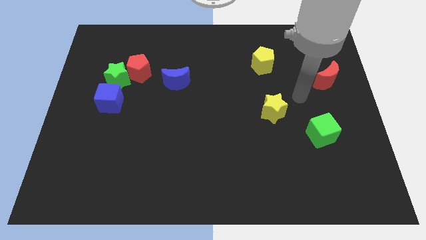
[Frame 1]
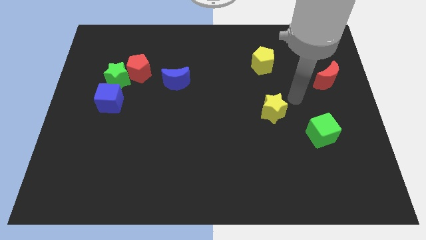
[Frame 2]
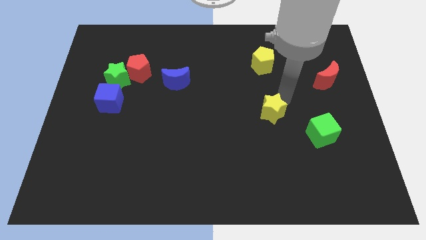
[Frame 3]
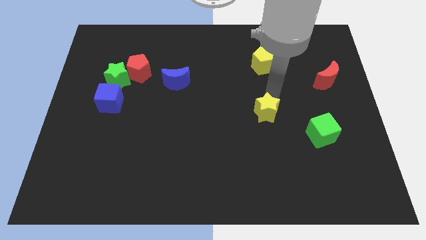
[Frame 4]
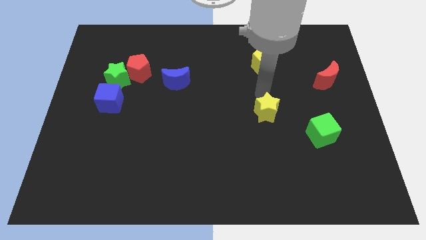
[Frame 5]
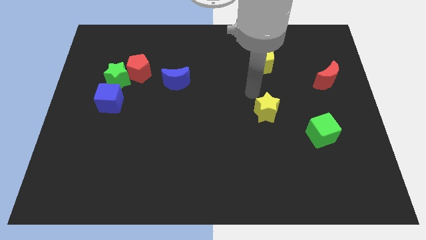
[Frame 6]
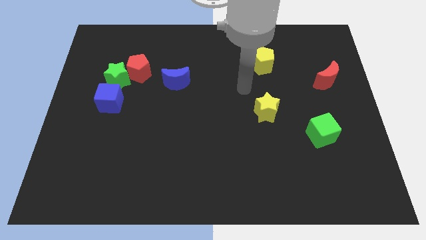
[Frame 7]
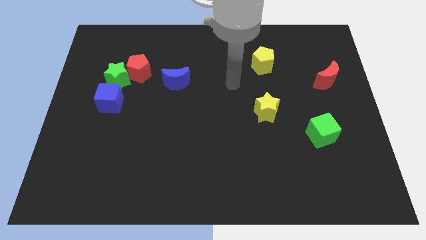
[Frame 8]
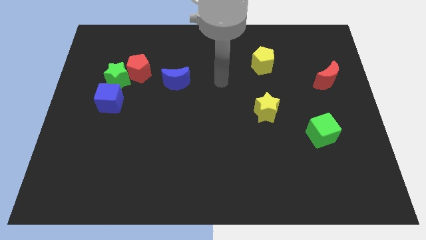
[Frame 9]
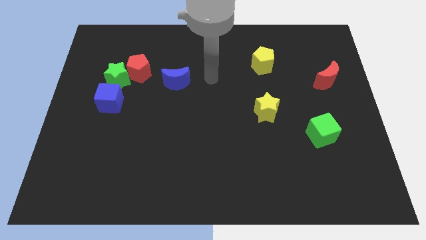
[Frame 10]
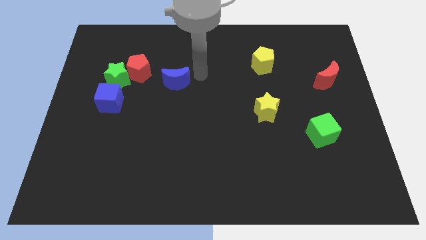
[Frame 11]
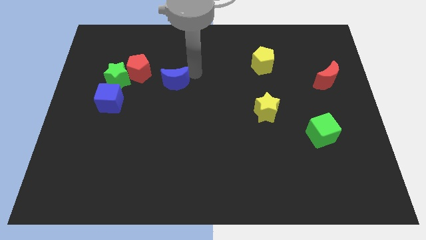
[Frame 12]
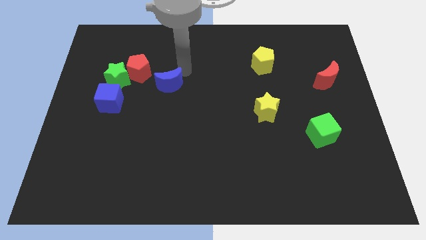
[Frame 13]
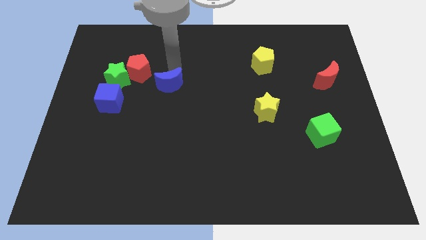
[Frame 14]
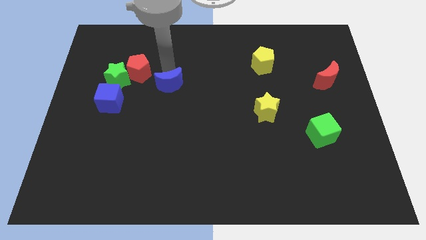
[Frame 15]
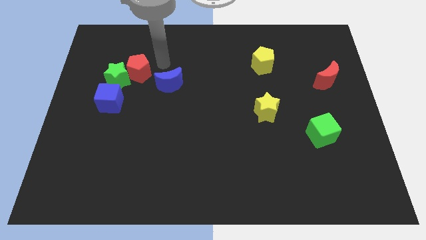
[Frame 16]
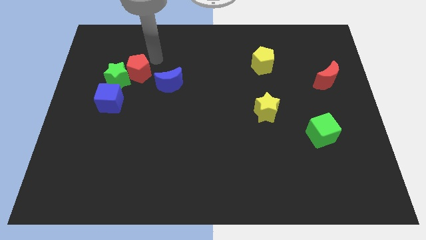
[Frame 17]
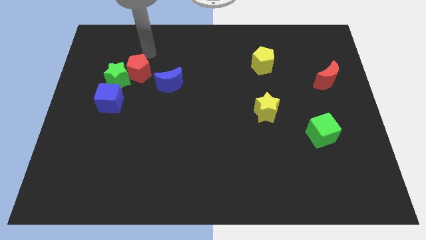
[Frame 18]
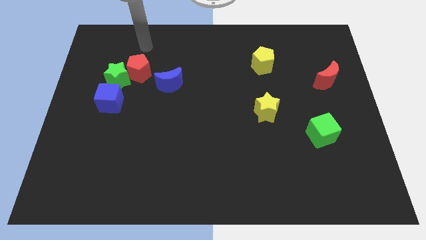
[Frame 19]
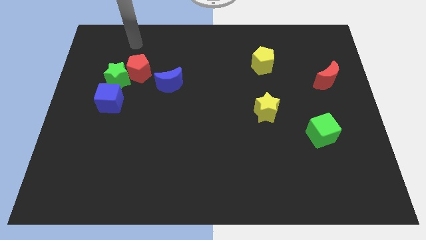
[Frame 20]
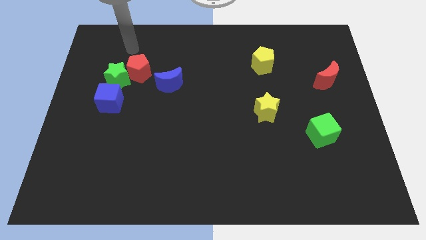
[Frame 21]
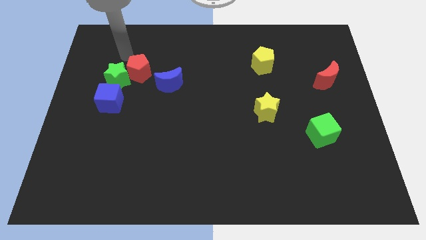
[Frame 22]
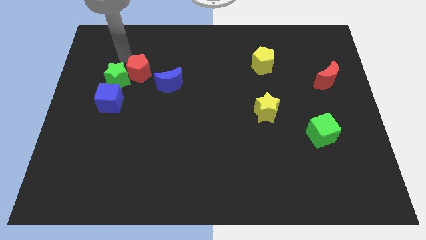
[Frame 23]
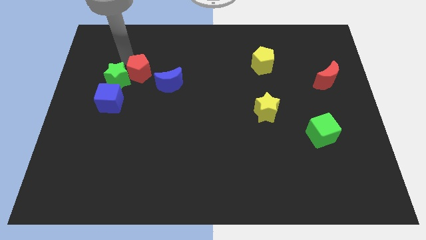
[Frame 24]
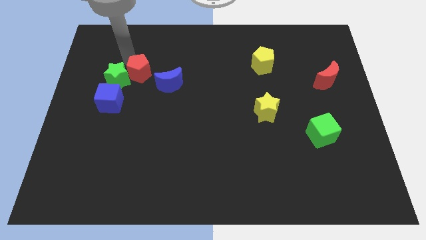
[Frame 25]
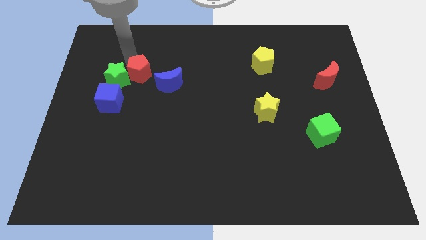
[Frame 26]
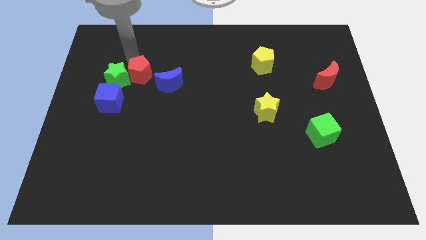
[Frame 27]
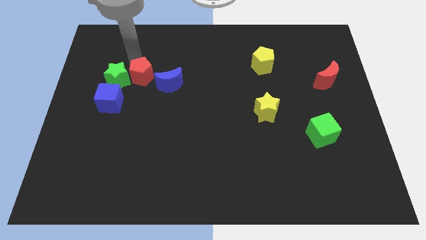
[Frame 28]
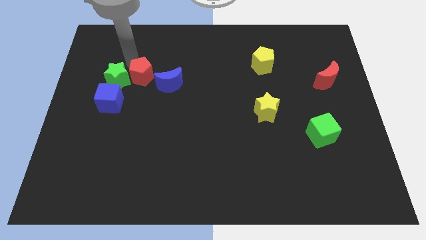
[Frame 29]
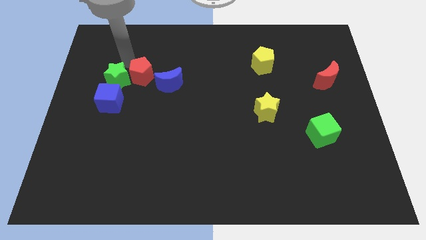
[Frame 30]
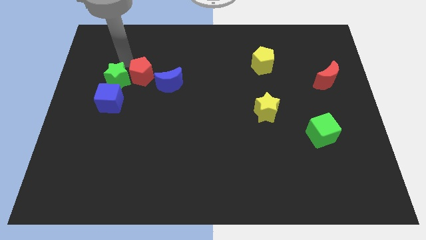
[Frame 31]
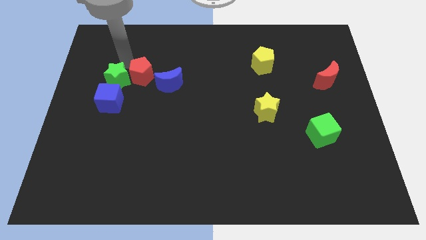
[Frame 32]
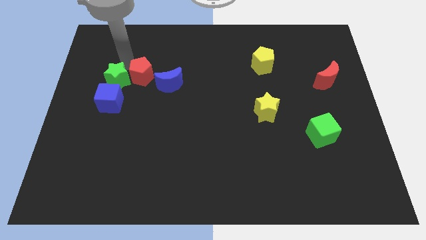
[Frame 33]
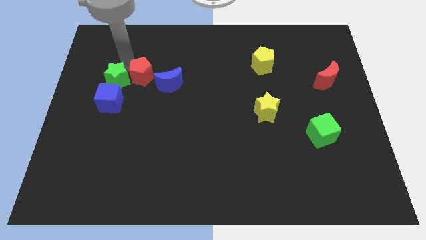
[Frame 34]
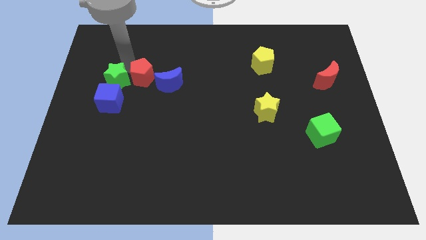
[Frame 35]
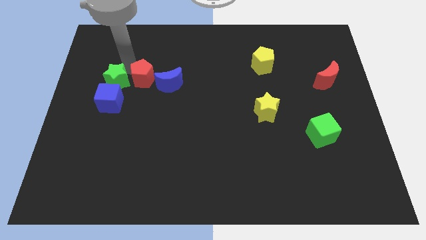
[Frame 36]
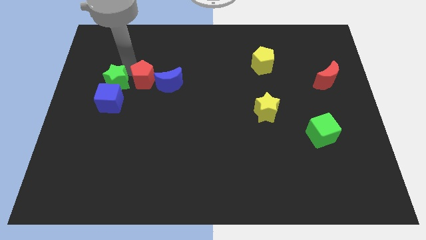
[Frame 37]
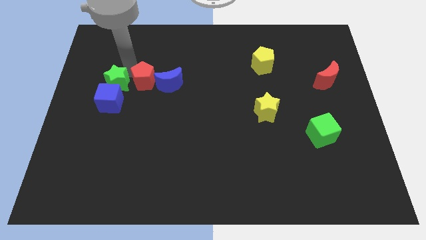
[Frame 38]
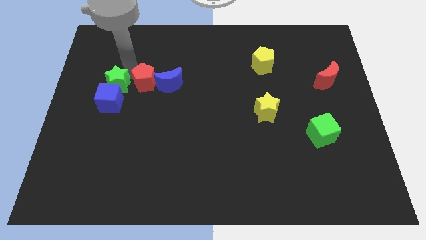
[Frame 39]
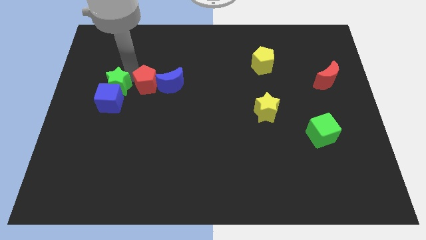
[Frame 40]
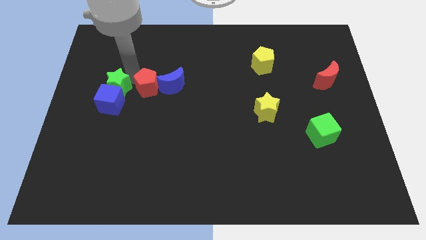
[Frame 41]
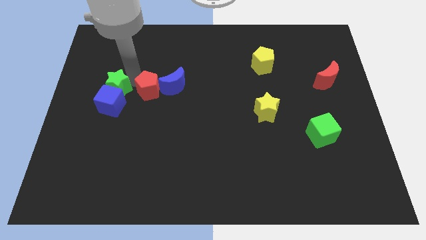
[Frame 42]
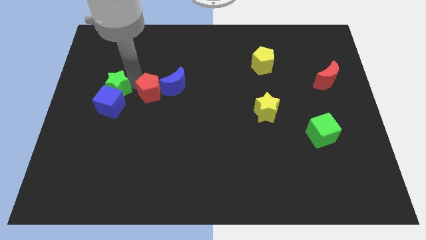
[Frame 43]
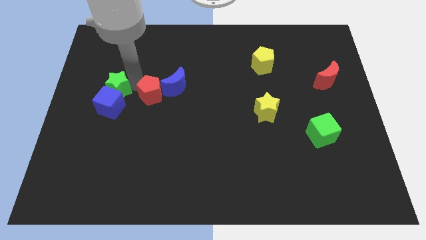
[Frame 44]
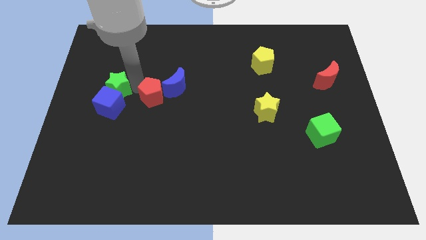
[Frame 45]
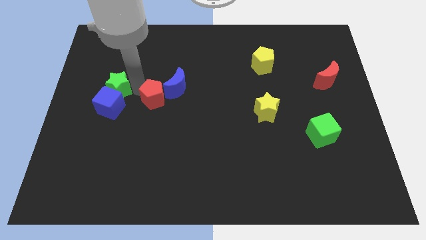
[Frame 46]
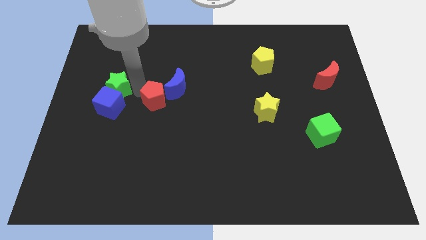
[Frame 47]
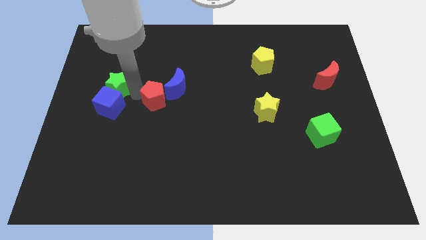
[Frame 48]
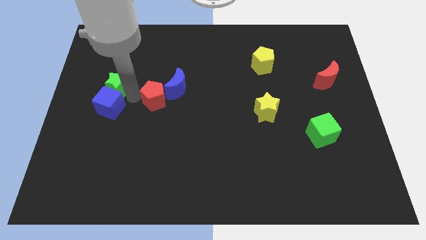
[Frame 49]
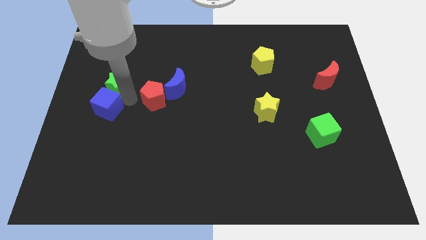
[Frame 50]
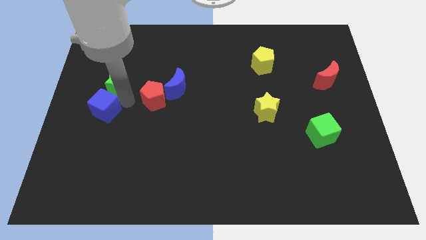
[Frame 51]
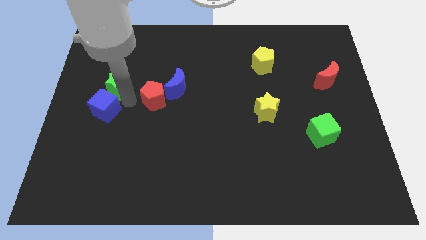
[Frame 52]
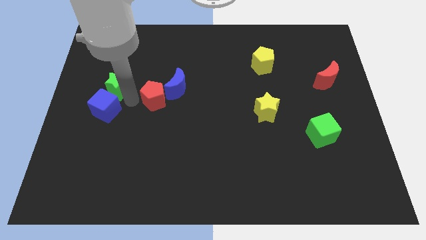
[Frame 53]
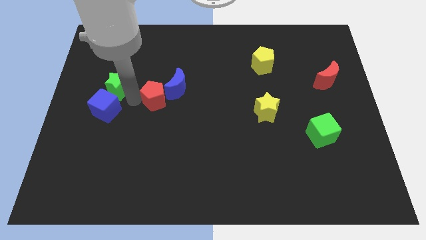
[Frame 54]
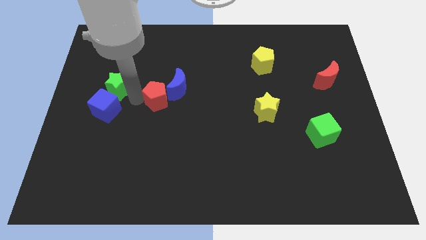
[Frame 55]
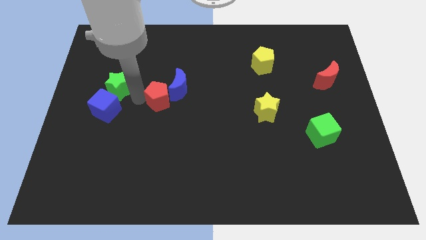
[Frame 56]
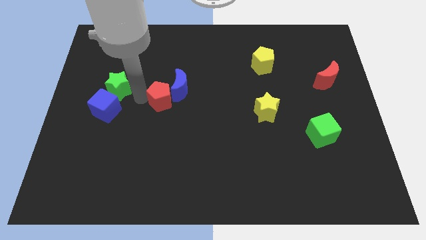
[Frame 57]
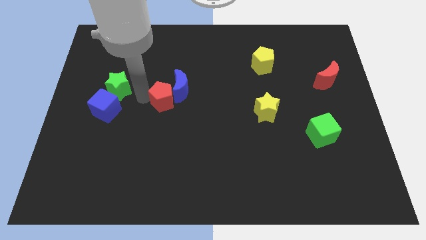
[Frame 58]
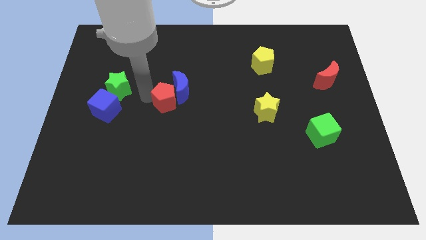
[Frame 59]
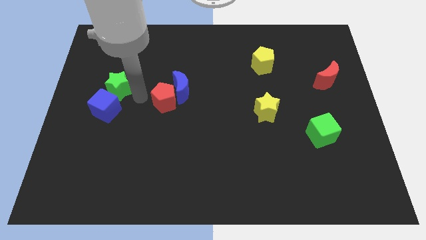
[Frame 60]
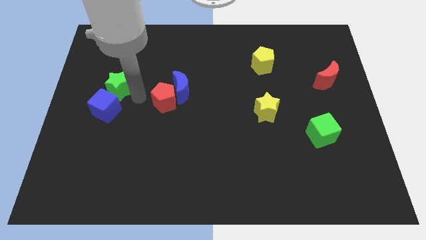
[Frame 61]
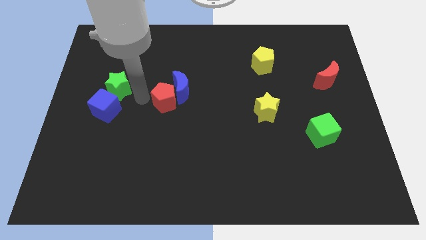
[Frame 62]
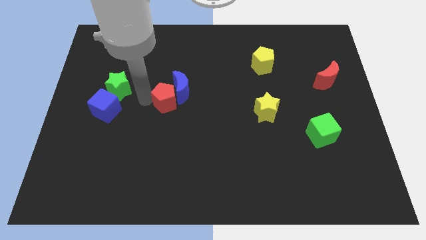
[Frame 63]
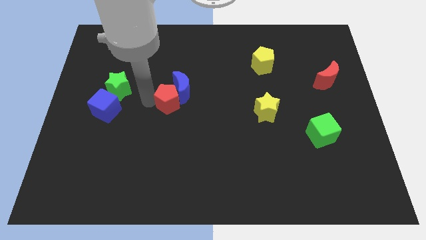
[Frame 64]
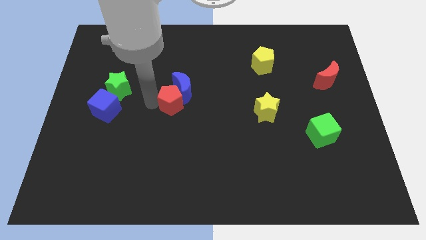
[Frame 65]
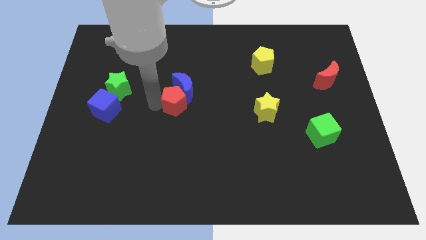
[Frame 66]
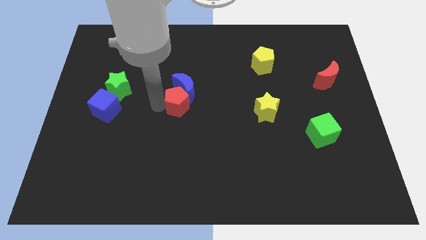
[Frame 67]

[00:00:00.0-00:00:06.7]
put the red pentagon to the bottom right of the blue moon

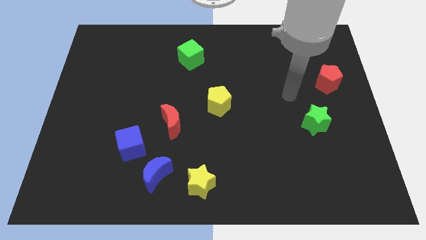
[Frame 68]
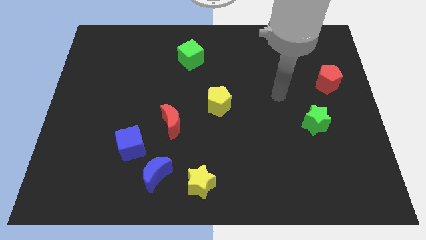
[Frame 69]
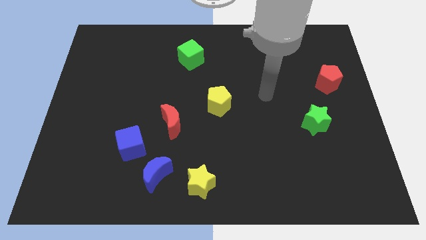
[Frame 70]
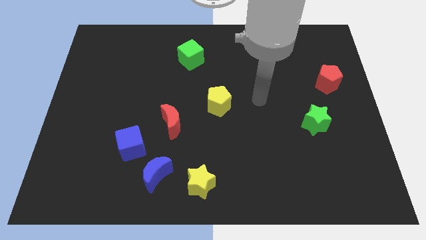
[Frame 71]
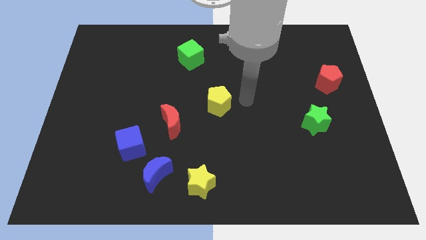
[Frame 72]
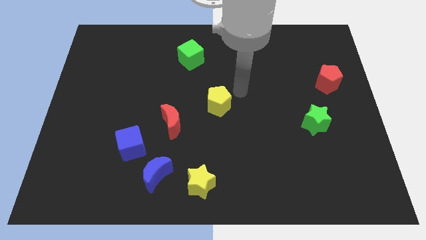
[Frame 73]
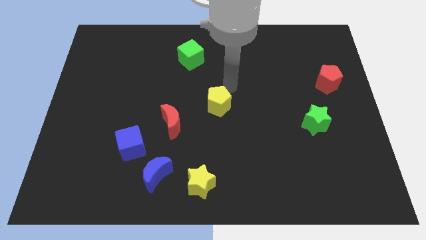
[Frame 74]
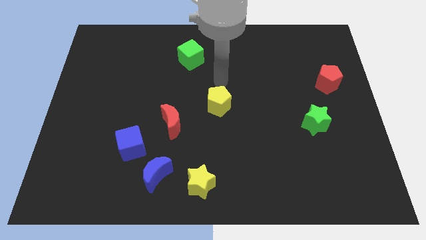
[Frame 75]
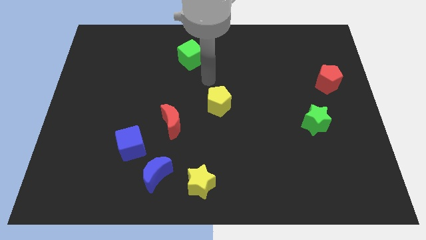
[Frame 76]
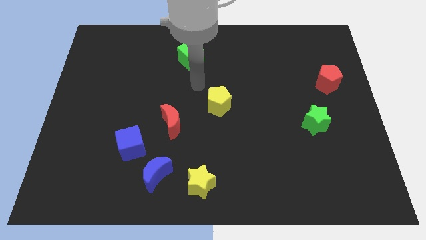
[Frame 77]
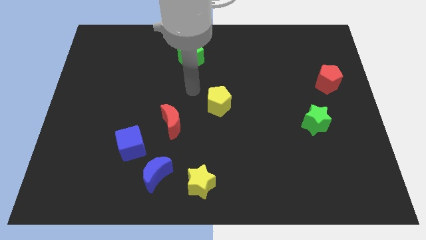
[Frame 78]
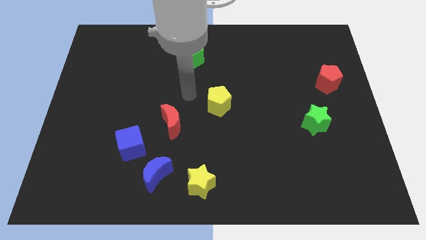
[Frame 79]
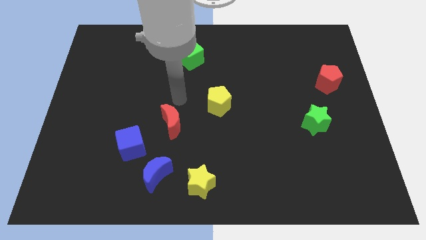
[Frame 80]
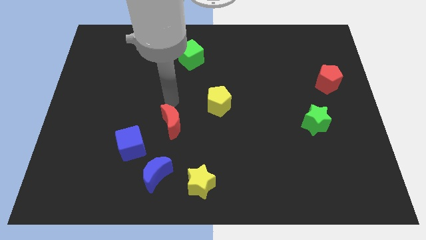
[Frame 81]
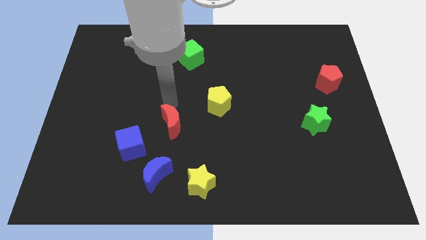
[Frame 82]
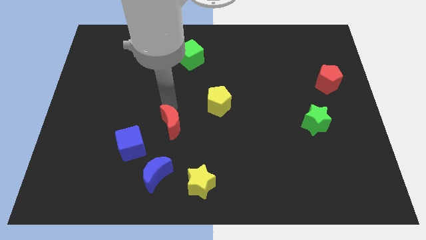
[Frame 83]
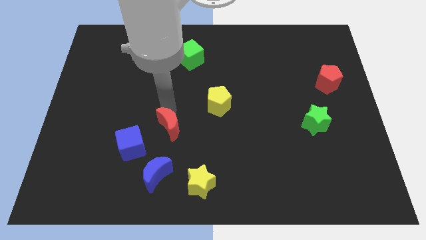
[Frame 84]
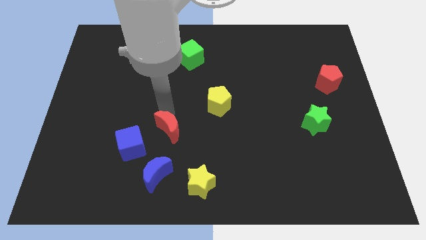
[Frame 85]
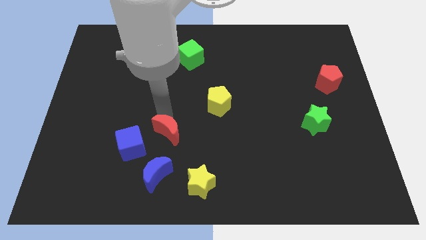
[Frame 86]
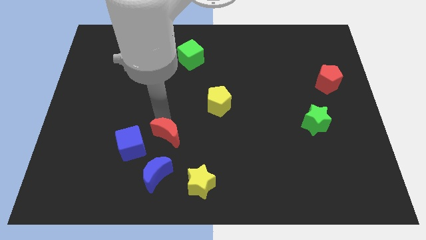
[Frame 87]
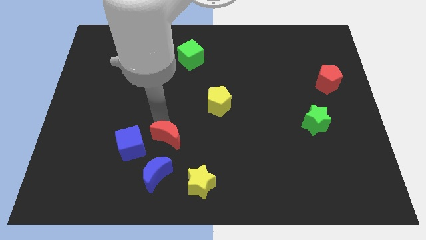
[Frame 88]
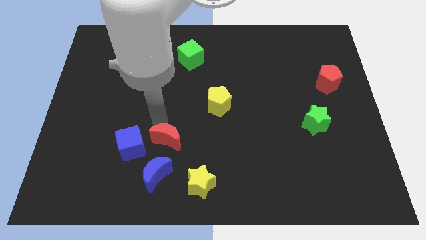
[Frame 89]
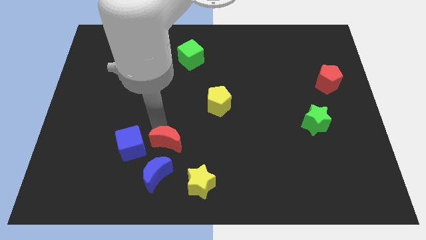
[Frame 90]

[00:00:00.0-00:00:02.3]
move the red moon to the top left of the yellow star
